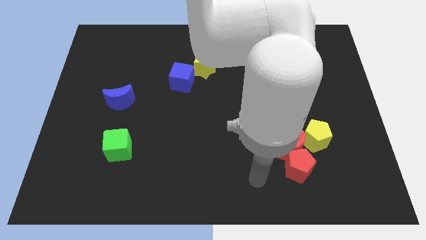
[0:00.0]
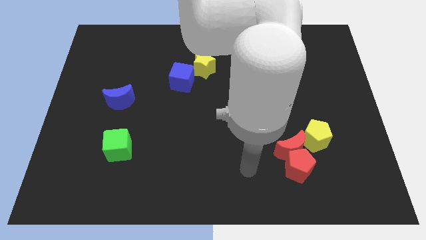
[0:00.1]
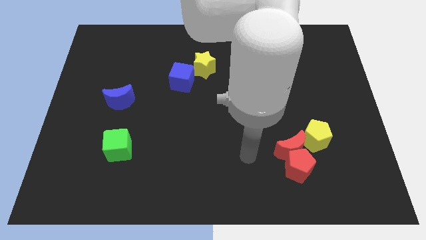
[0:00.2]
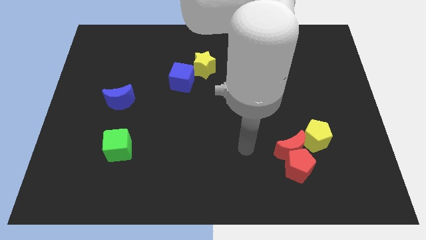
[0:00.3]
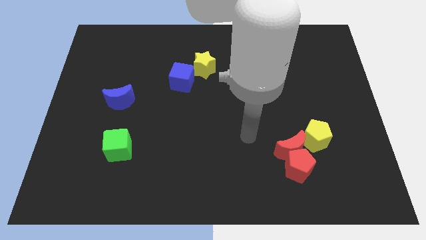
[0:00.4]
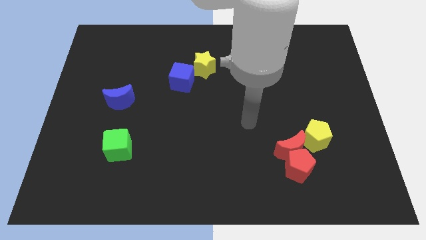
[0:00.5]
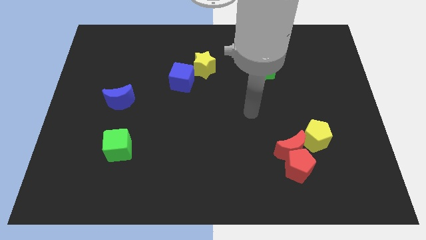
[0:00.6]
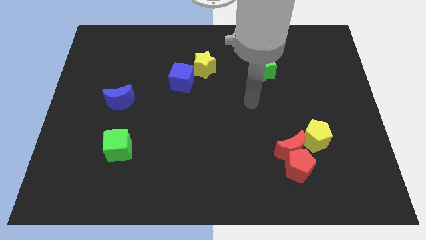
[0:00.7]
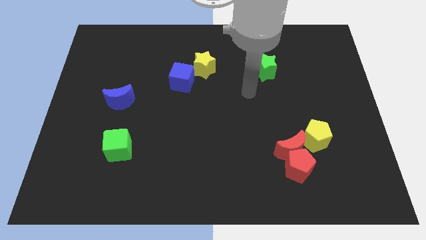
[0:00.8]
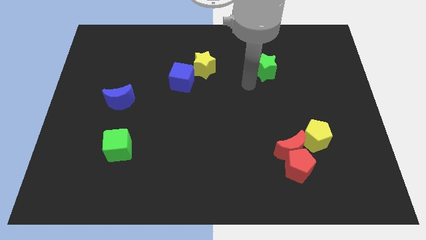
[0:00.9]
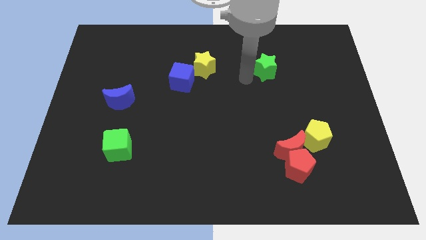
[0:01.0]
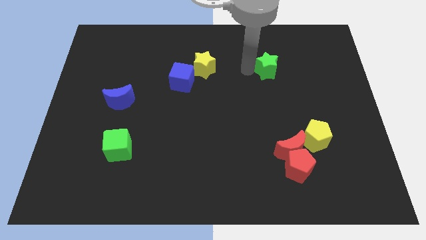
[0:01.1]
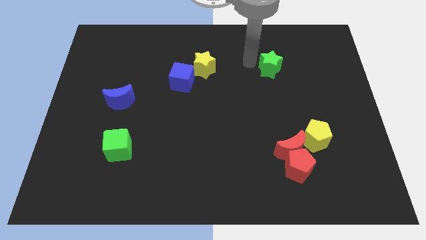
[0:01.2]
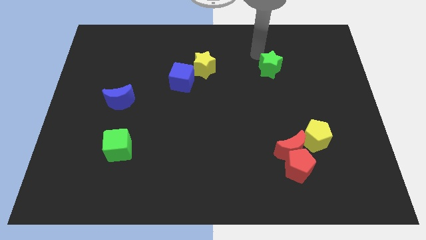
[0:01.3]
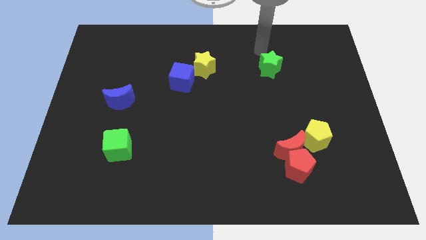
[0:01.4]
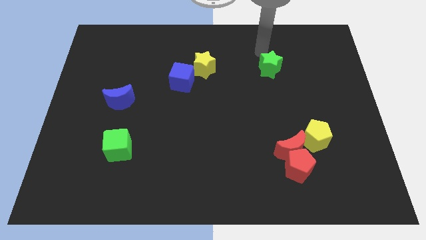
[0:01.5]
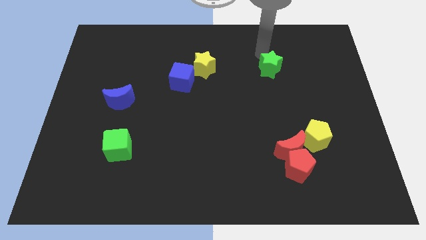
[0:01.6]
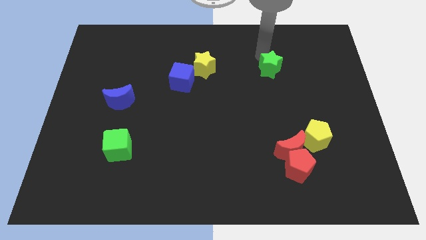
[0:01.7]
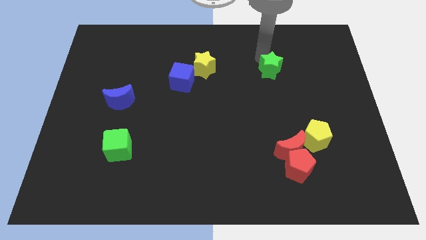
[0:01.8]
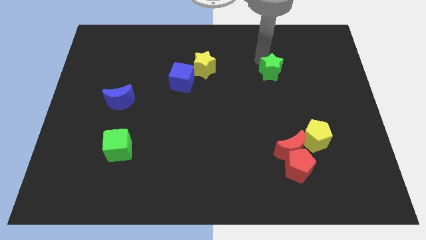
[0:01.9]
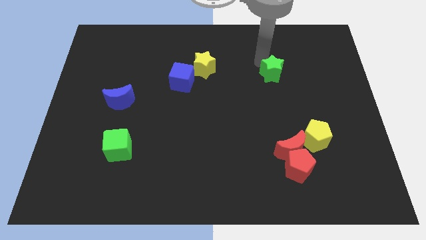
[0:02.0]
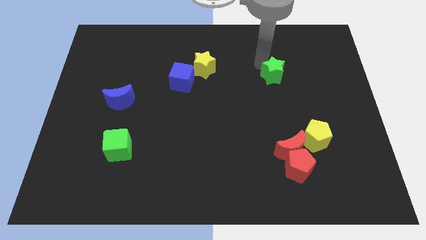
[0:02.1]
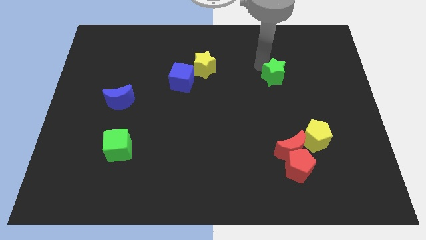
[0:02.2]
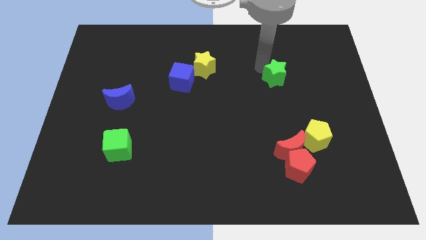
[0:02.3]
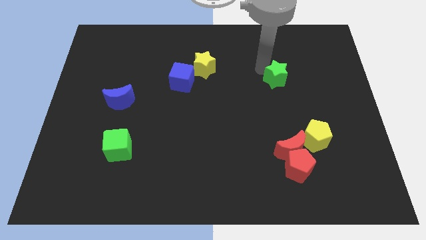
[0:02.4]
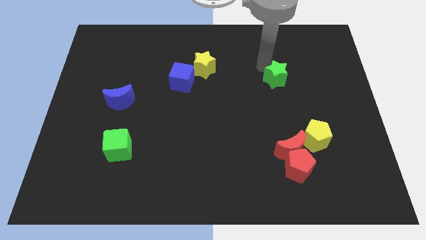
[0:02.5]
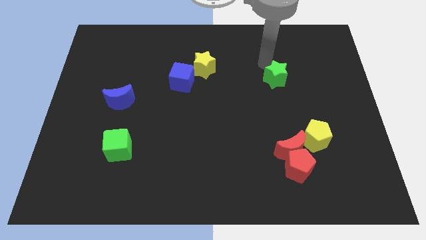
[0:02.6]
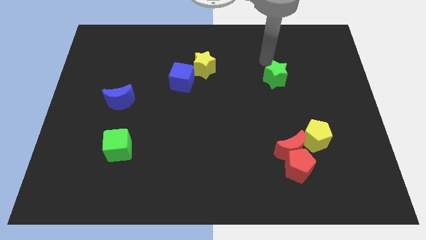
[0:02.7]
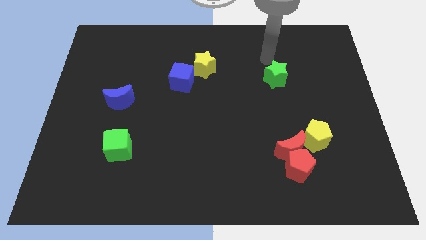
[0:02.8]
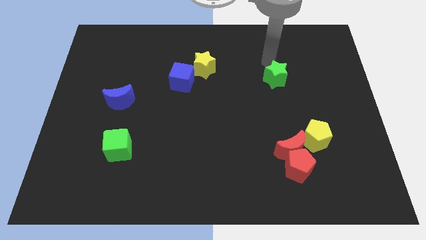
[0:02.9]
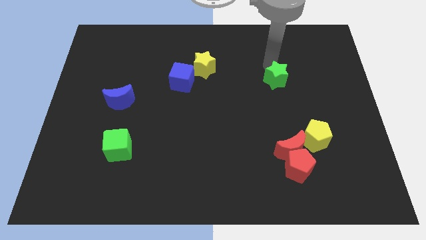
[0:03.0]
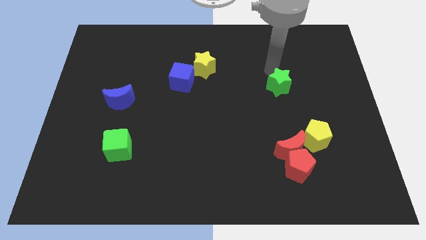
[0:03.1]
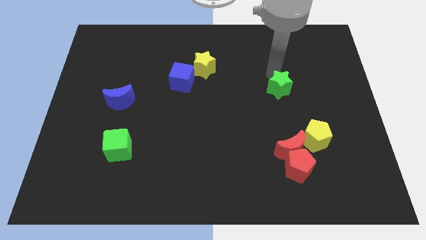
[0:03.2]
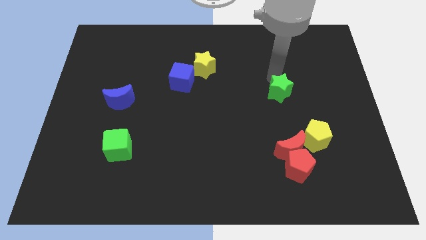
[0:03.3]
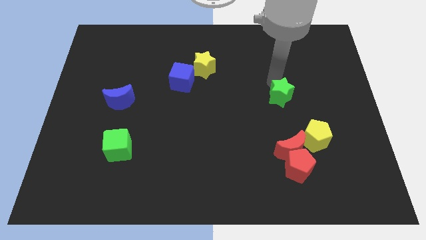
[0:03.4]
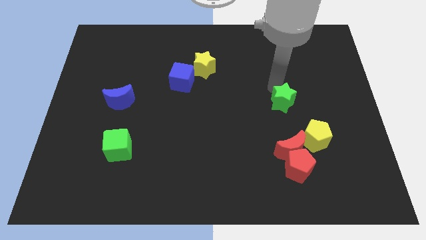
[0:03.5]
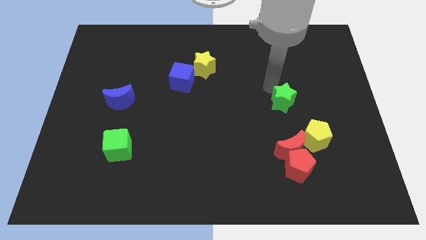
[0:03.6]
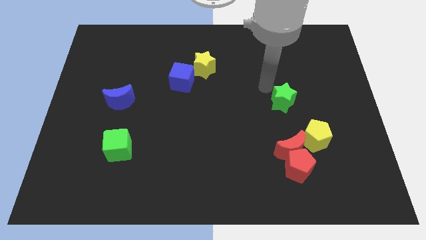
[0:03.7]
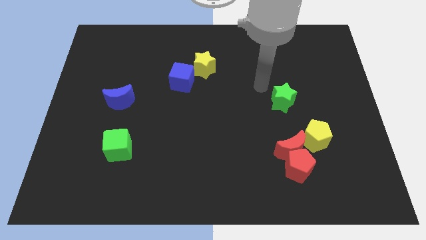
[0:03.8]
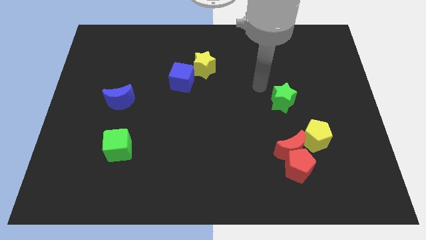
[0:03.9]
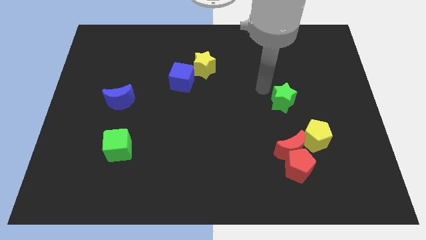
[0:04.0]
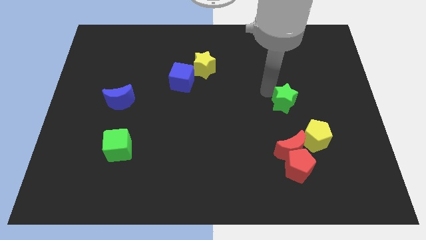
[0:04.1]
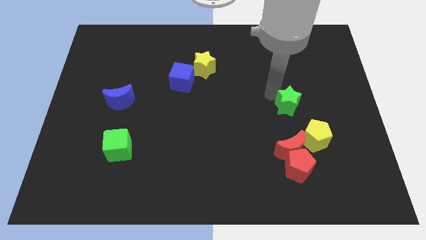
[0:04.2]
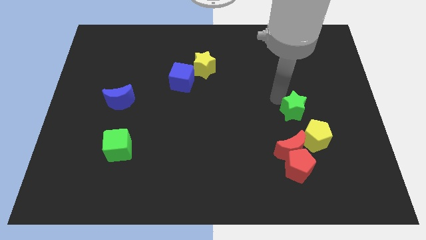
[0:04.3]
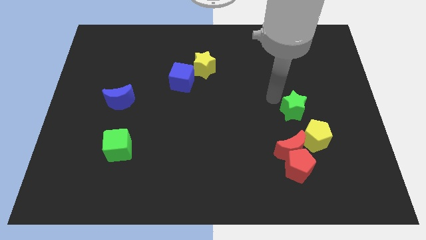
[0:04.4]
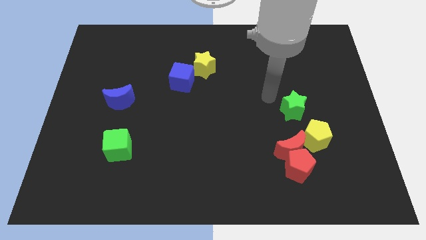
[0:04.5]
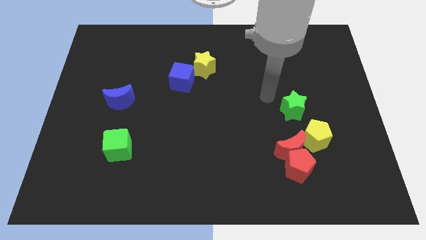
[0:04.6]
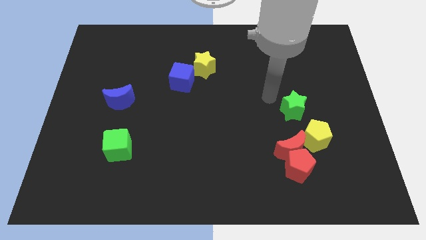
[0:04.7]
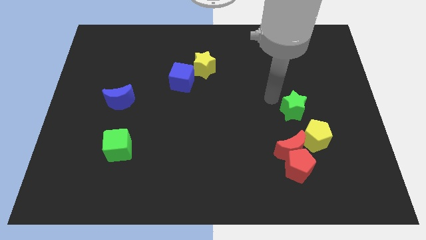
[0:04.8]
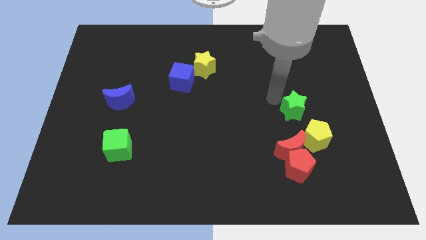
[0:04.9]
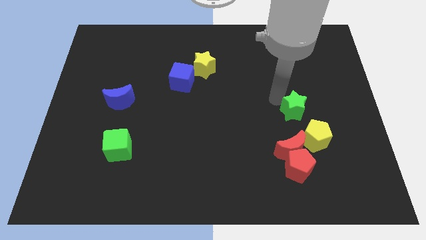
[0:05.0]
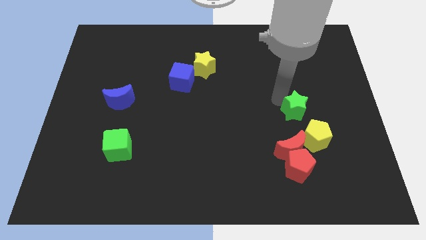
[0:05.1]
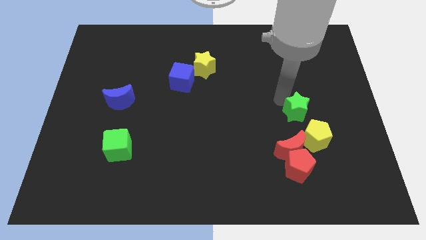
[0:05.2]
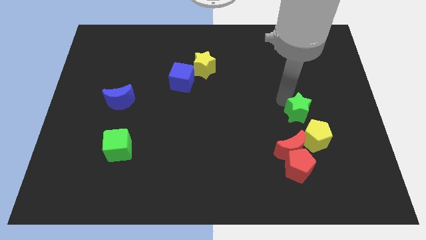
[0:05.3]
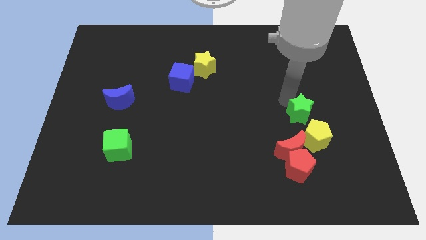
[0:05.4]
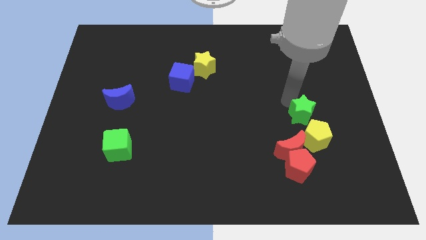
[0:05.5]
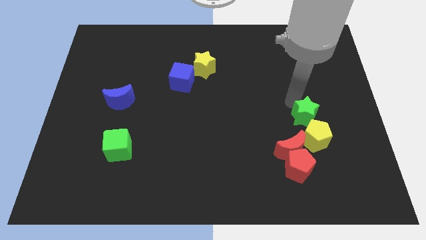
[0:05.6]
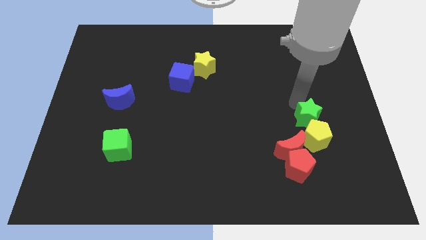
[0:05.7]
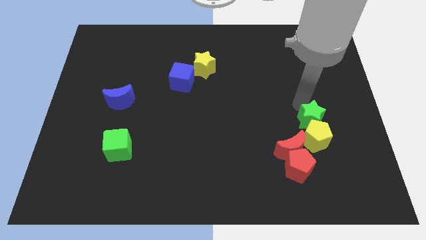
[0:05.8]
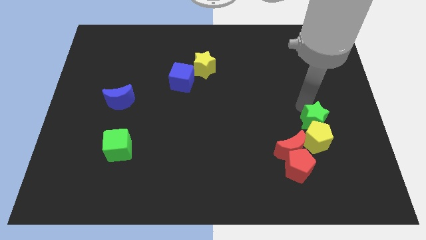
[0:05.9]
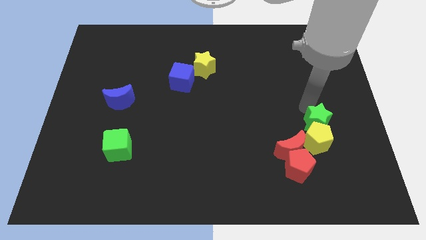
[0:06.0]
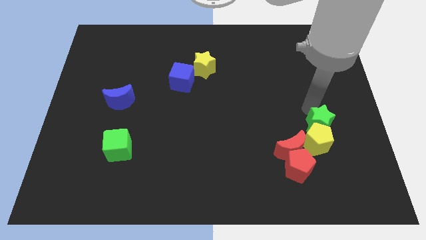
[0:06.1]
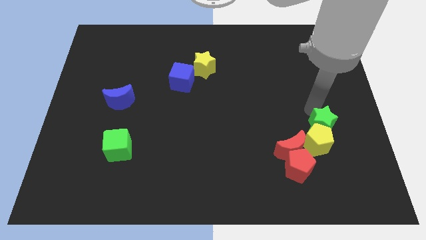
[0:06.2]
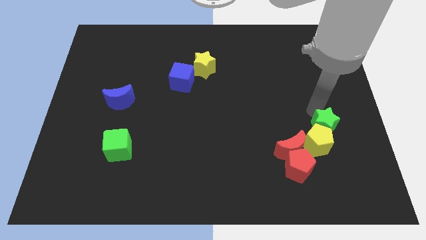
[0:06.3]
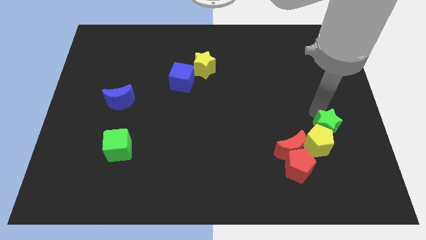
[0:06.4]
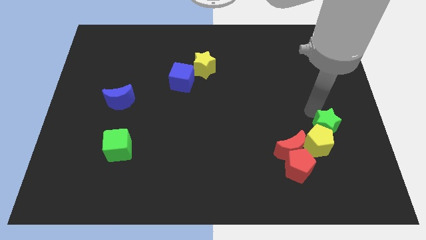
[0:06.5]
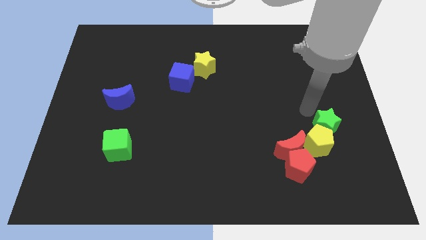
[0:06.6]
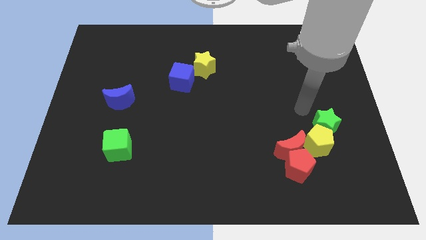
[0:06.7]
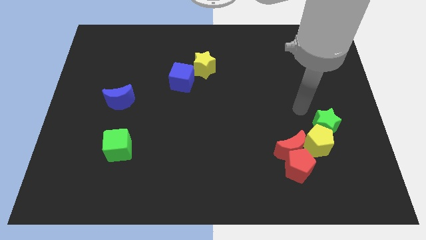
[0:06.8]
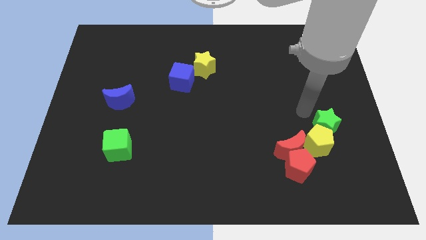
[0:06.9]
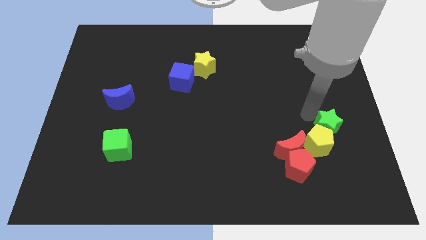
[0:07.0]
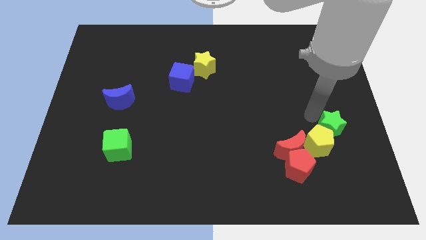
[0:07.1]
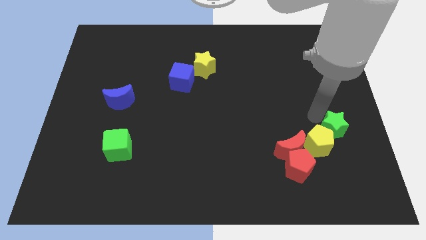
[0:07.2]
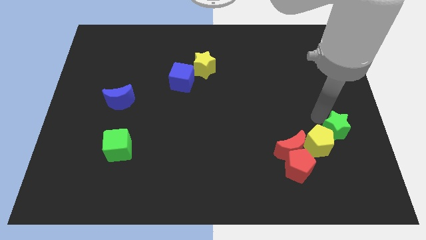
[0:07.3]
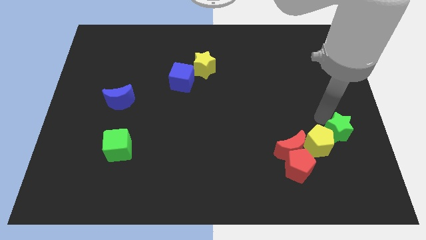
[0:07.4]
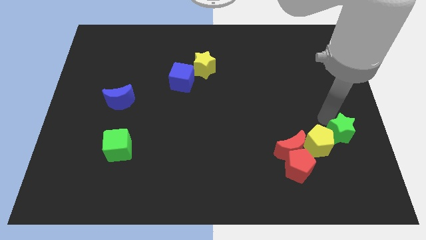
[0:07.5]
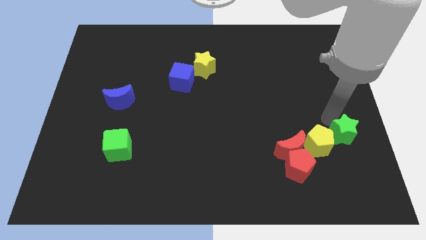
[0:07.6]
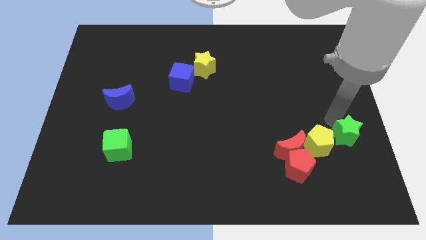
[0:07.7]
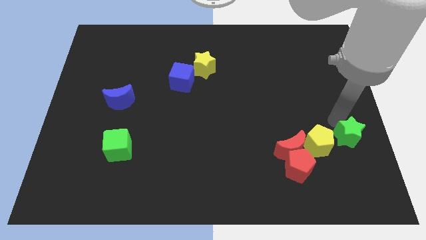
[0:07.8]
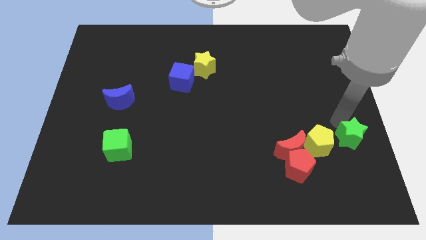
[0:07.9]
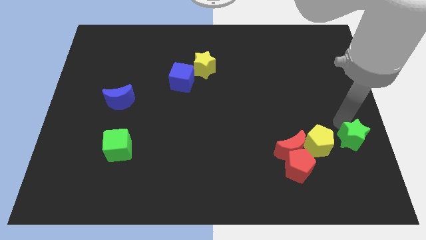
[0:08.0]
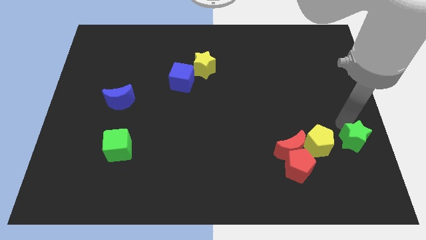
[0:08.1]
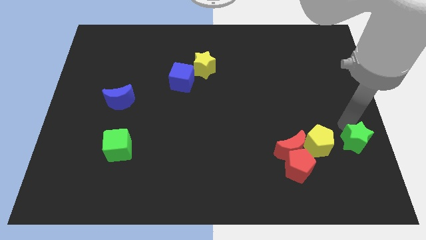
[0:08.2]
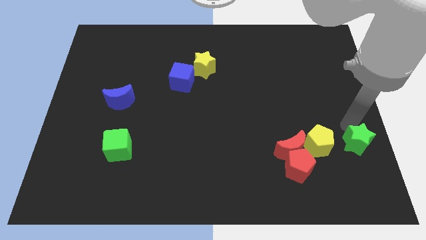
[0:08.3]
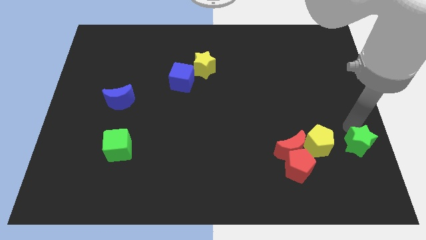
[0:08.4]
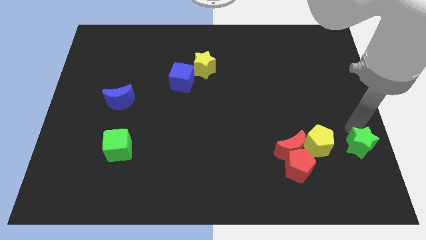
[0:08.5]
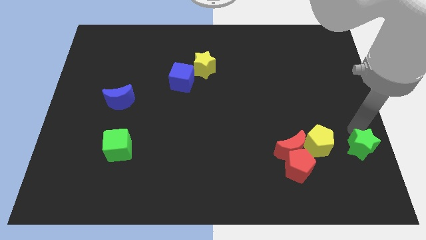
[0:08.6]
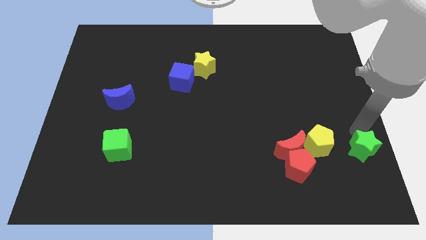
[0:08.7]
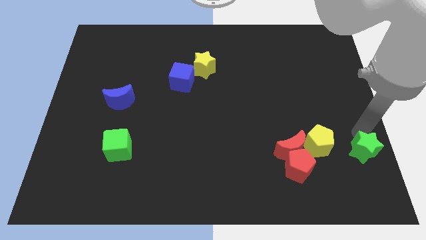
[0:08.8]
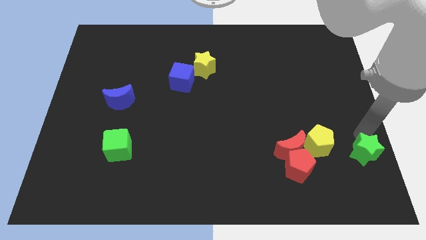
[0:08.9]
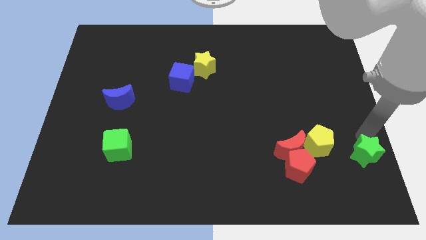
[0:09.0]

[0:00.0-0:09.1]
slide the green star just right of the red pentagon
